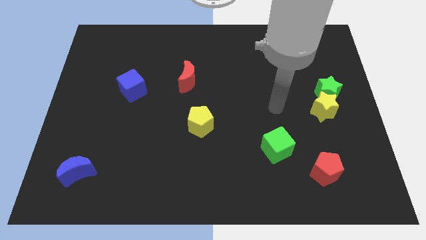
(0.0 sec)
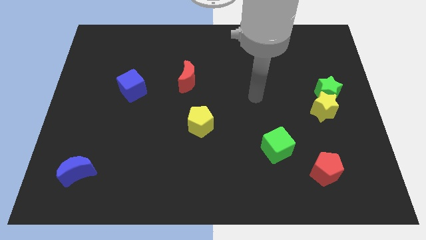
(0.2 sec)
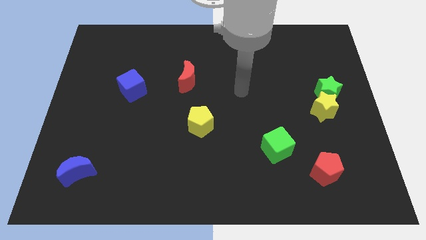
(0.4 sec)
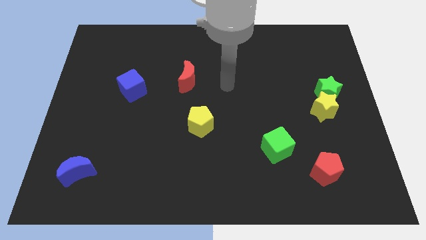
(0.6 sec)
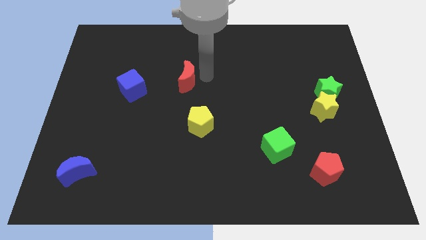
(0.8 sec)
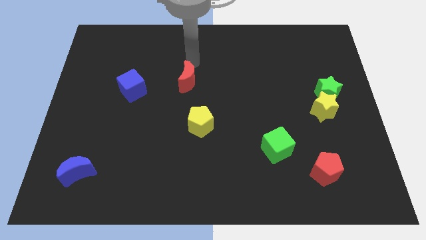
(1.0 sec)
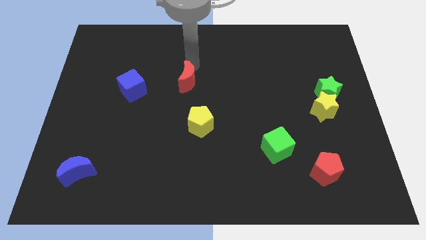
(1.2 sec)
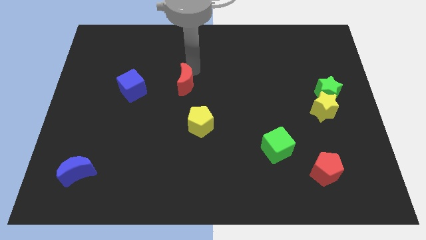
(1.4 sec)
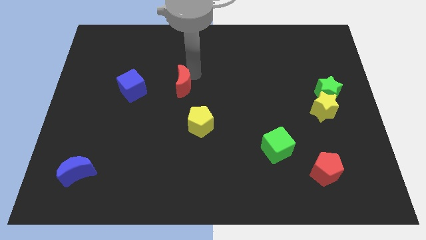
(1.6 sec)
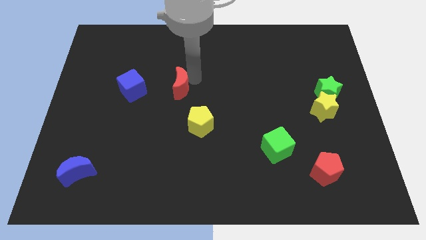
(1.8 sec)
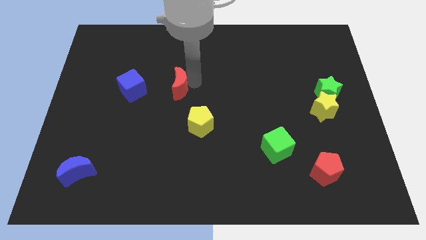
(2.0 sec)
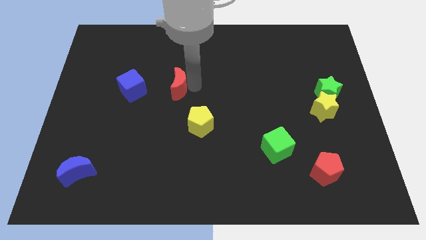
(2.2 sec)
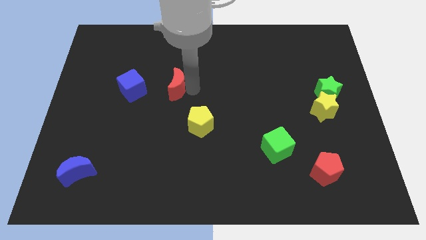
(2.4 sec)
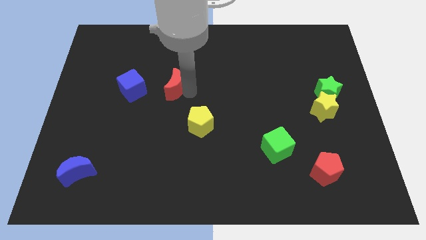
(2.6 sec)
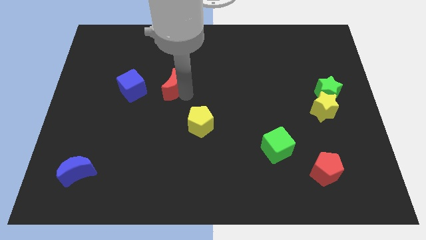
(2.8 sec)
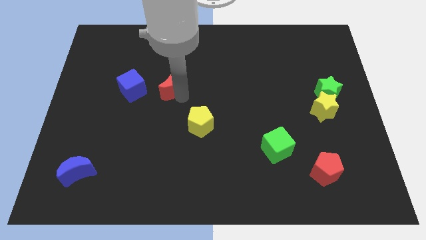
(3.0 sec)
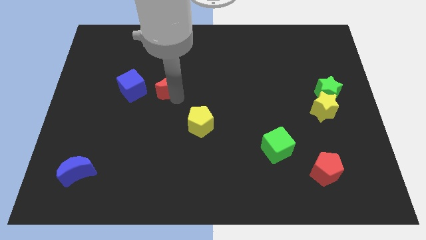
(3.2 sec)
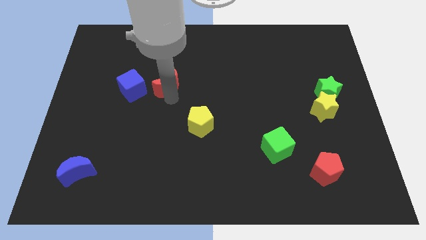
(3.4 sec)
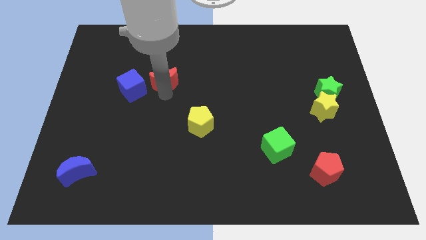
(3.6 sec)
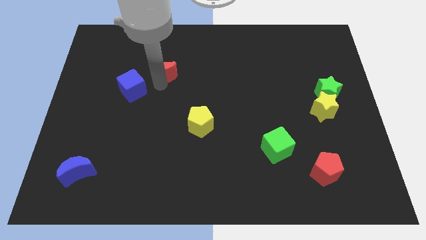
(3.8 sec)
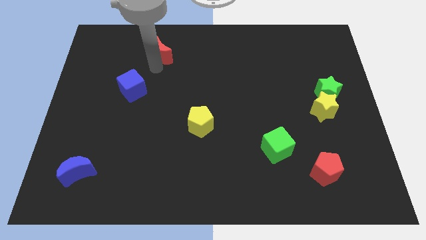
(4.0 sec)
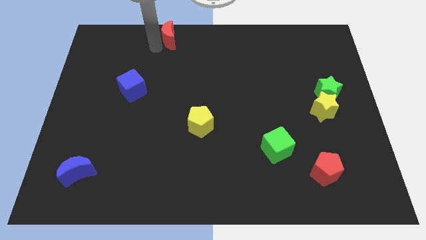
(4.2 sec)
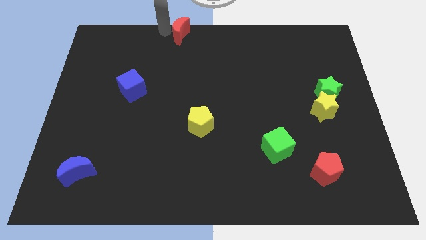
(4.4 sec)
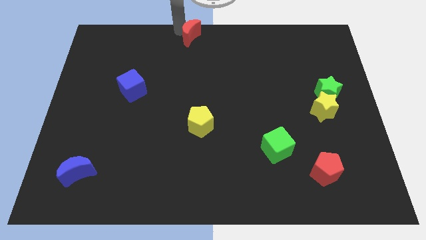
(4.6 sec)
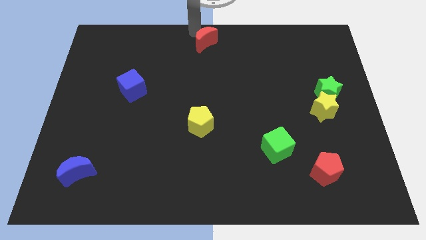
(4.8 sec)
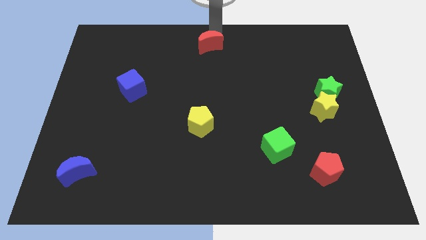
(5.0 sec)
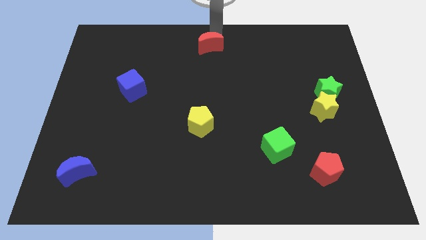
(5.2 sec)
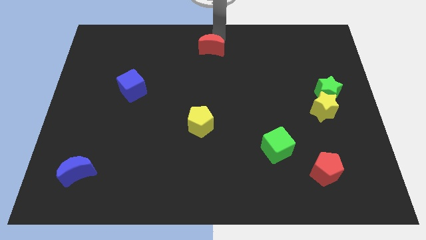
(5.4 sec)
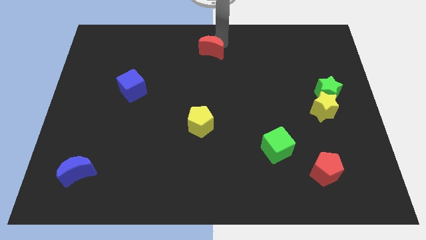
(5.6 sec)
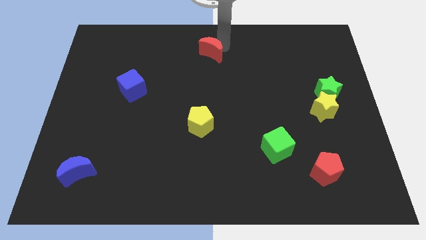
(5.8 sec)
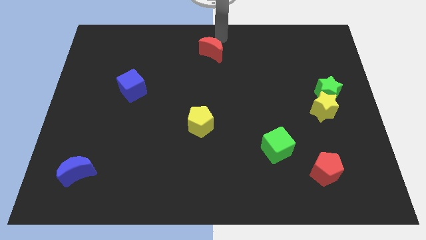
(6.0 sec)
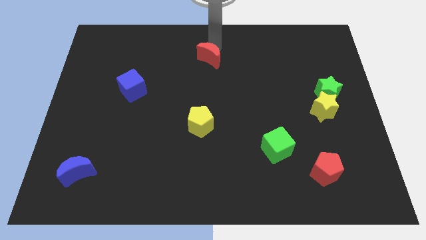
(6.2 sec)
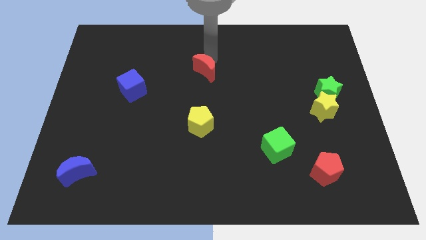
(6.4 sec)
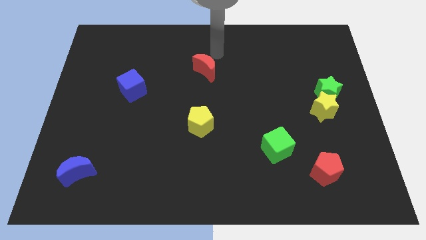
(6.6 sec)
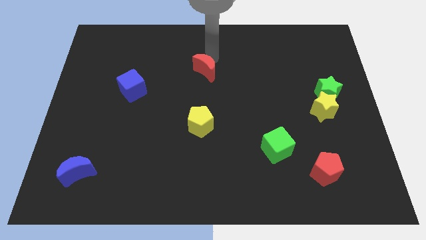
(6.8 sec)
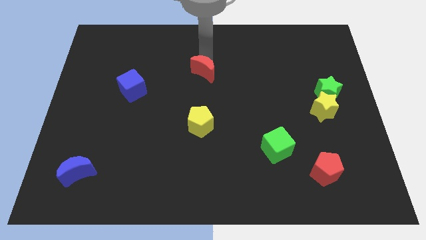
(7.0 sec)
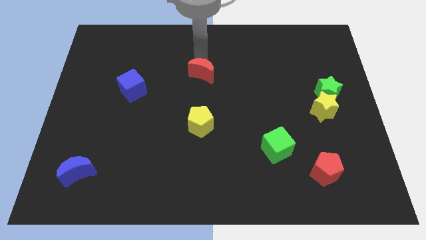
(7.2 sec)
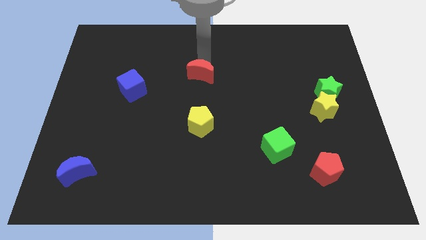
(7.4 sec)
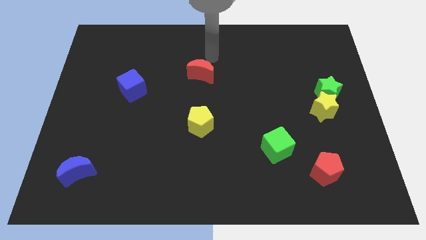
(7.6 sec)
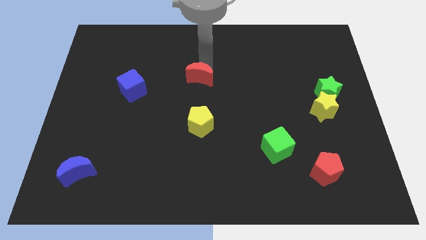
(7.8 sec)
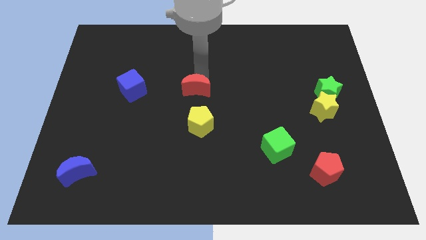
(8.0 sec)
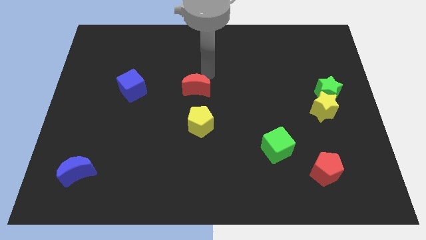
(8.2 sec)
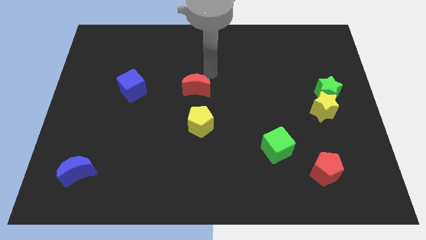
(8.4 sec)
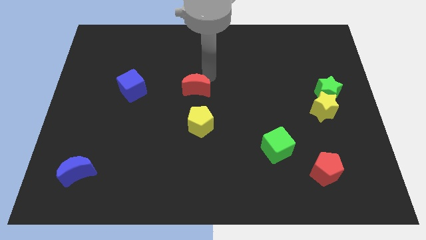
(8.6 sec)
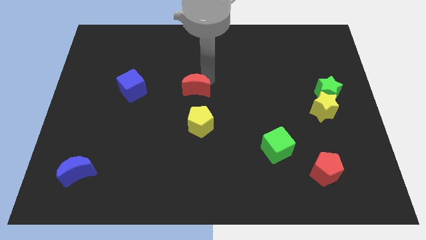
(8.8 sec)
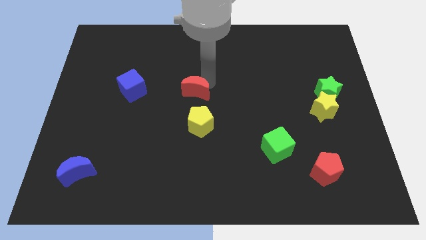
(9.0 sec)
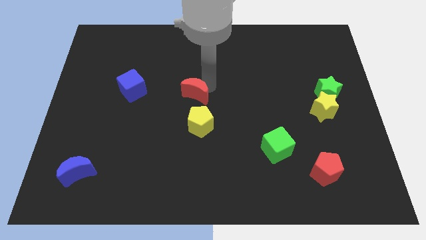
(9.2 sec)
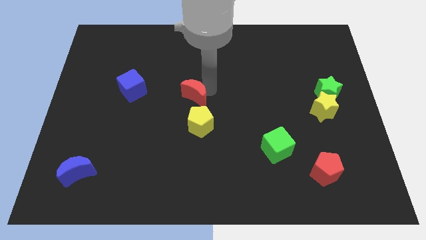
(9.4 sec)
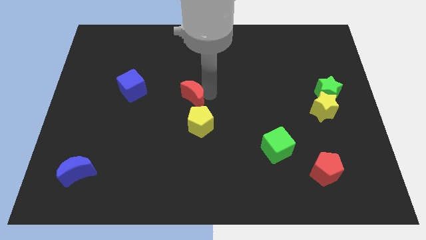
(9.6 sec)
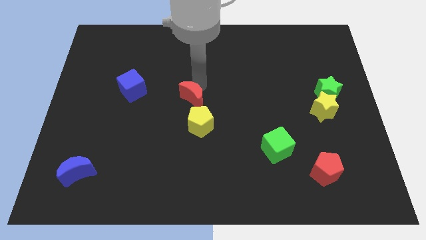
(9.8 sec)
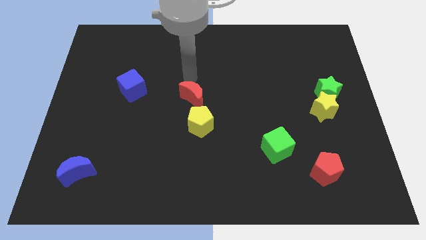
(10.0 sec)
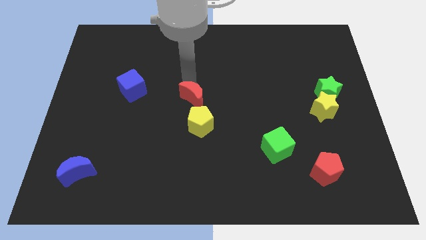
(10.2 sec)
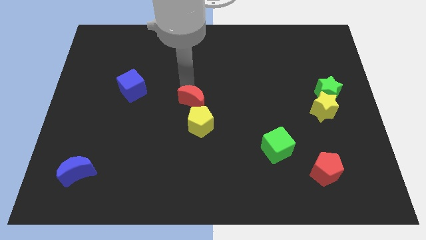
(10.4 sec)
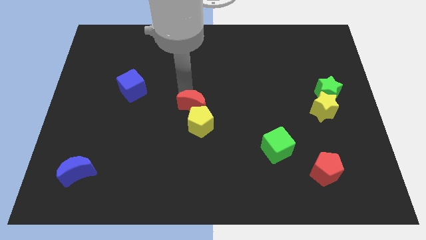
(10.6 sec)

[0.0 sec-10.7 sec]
put the red moon towards the yellow pentagon

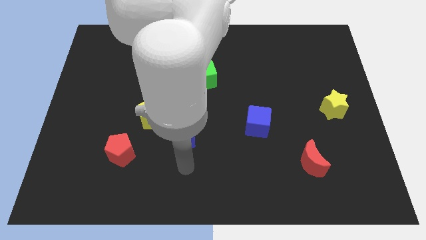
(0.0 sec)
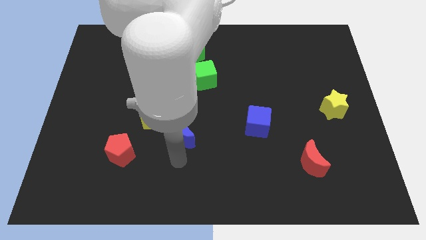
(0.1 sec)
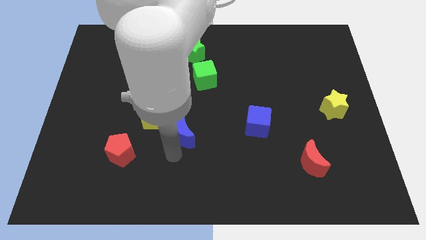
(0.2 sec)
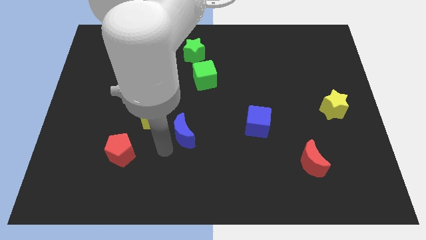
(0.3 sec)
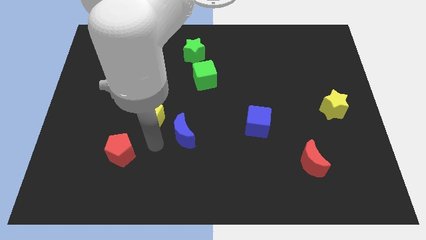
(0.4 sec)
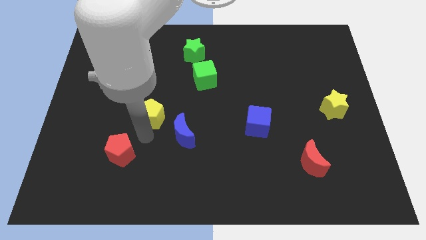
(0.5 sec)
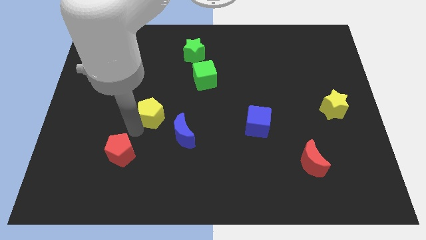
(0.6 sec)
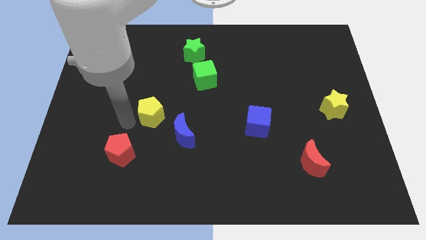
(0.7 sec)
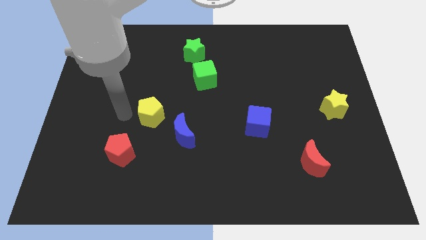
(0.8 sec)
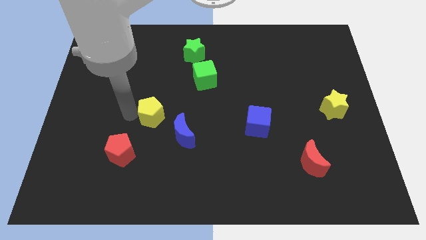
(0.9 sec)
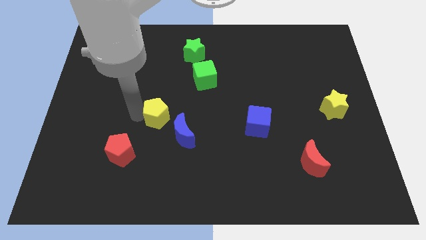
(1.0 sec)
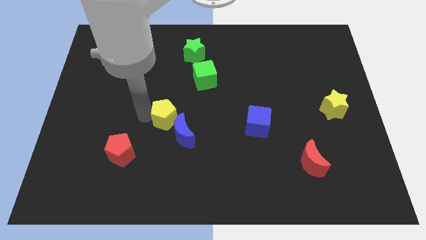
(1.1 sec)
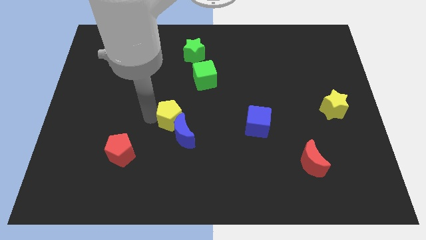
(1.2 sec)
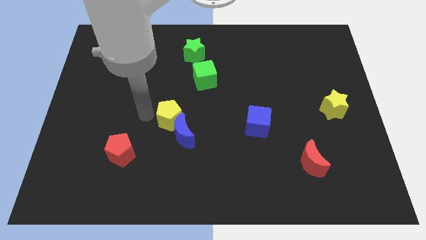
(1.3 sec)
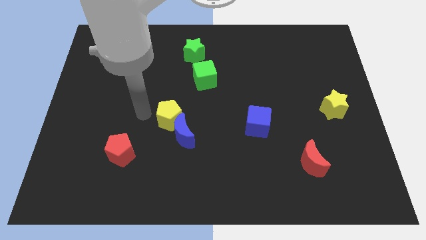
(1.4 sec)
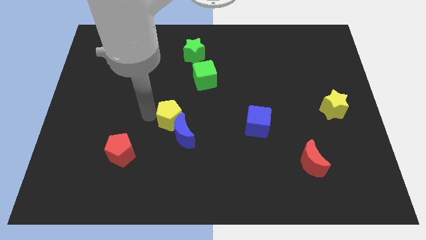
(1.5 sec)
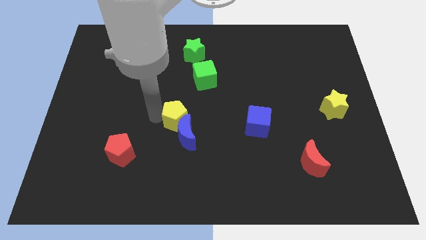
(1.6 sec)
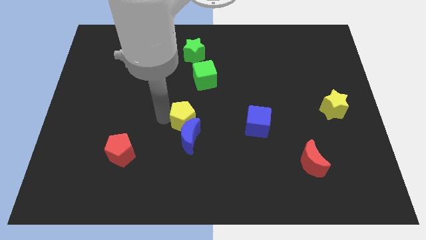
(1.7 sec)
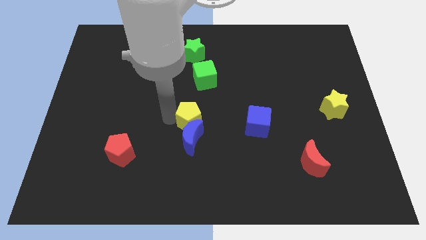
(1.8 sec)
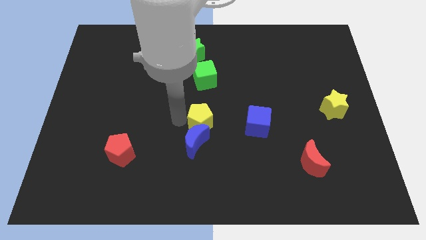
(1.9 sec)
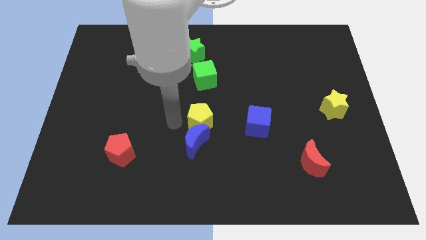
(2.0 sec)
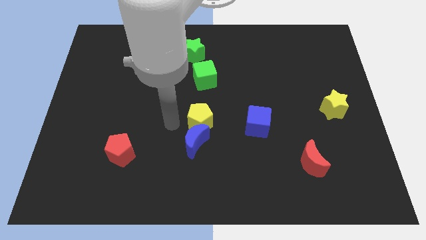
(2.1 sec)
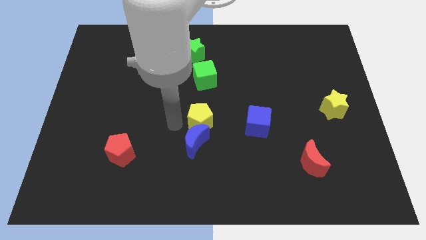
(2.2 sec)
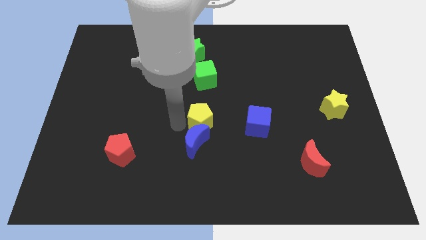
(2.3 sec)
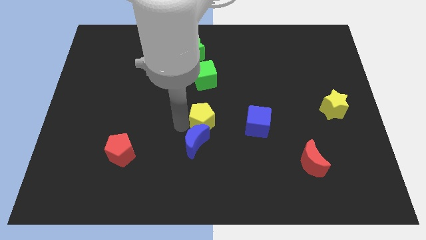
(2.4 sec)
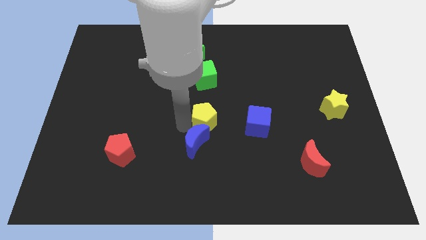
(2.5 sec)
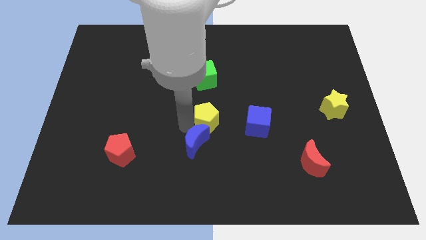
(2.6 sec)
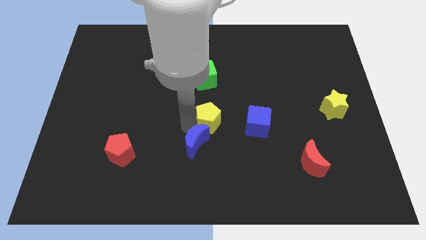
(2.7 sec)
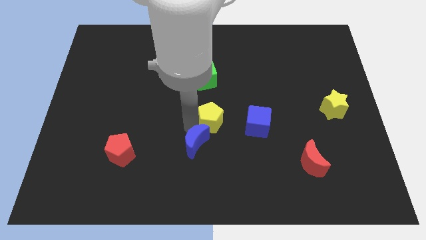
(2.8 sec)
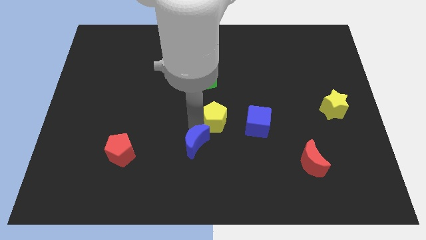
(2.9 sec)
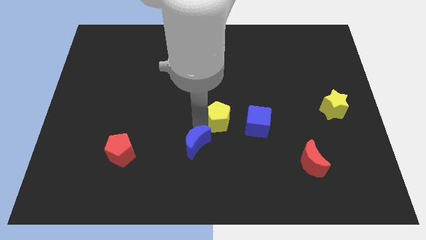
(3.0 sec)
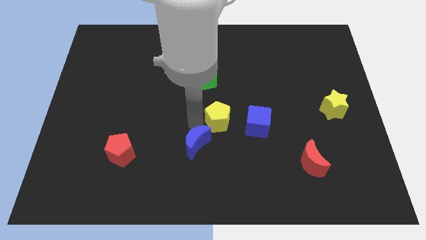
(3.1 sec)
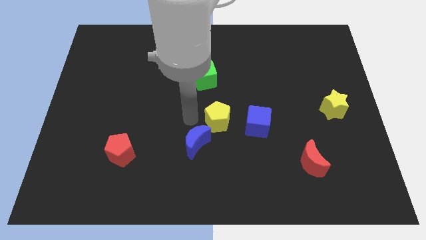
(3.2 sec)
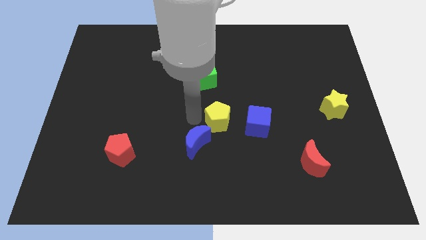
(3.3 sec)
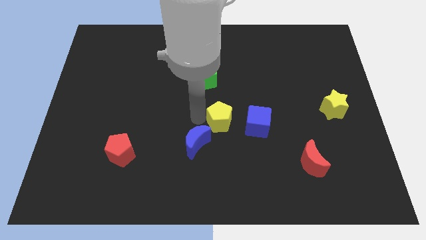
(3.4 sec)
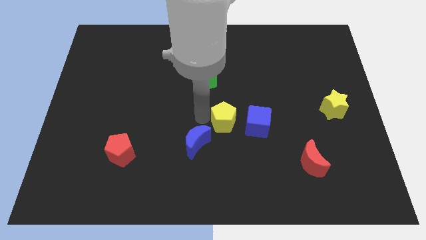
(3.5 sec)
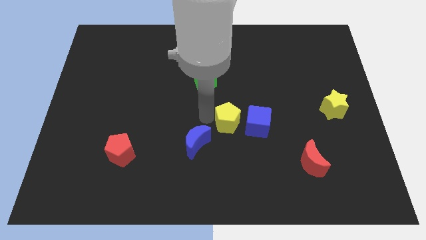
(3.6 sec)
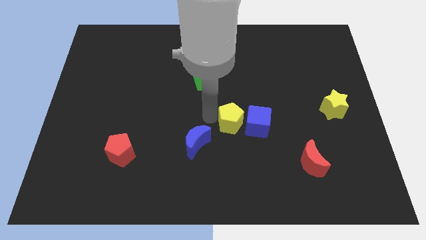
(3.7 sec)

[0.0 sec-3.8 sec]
move the yellow pentagon towards the blue cube
